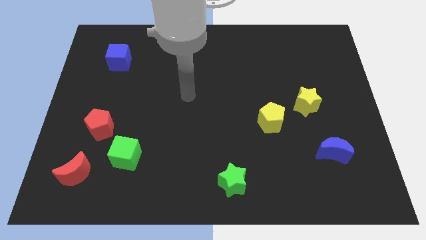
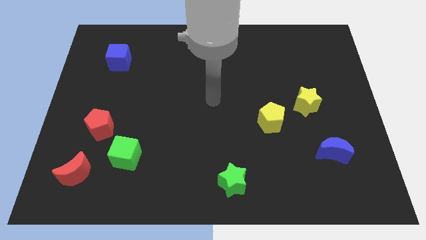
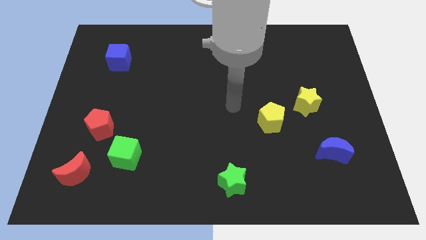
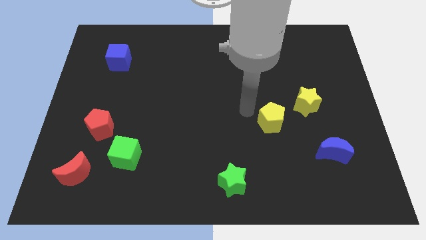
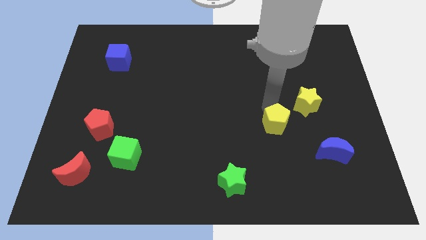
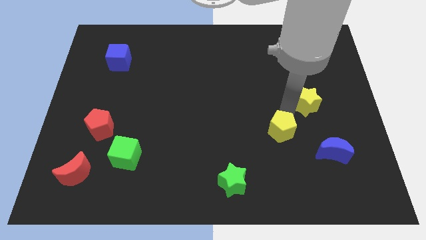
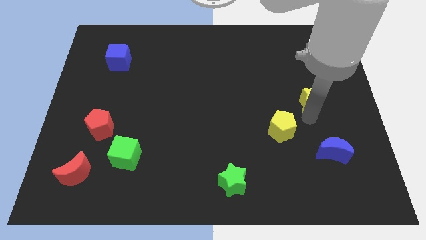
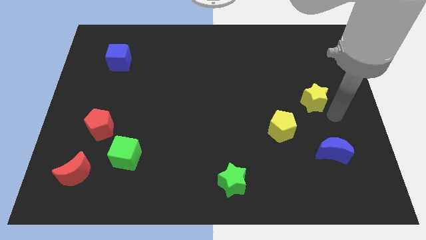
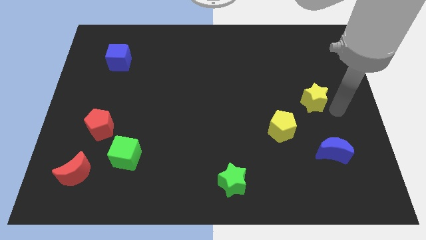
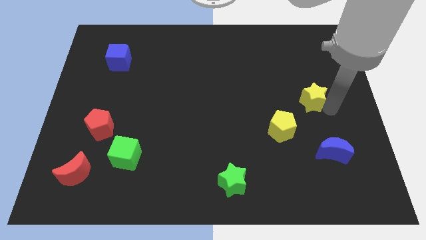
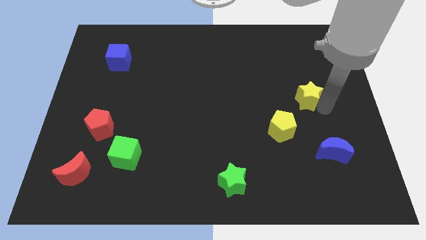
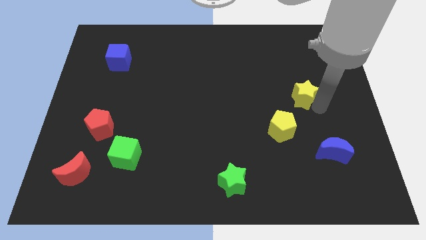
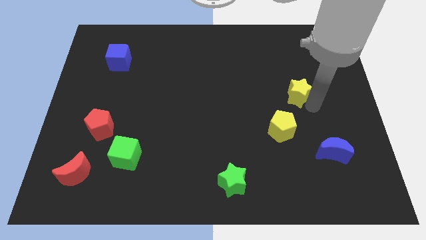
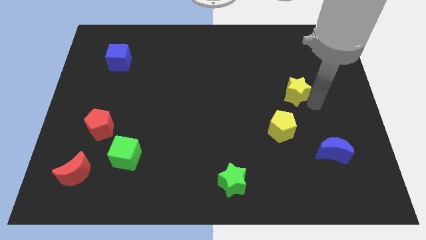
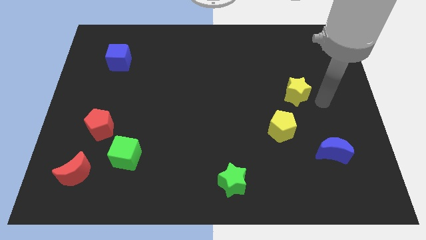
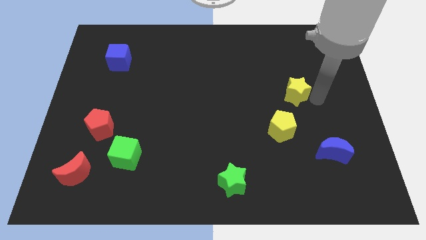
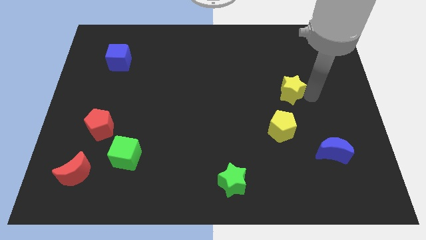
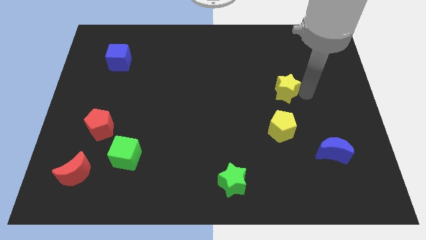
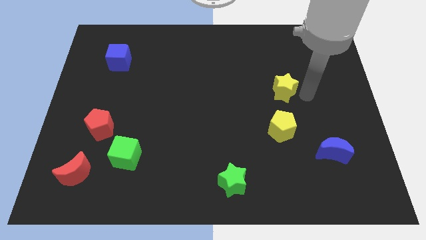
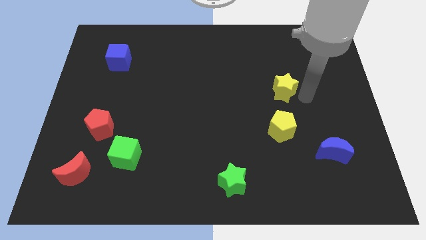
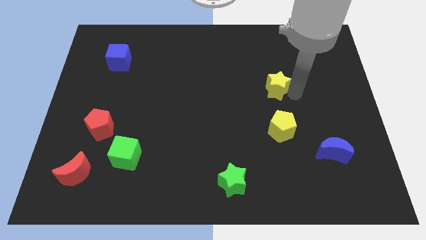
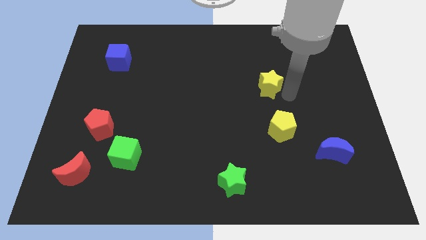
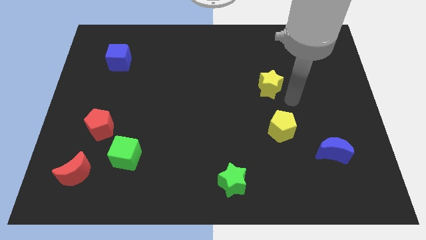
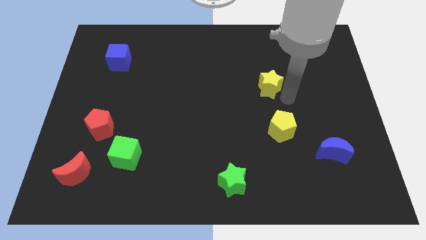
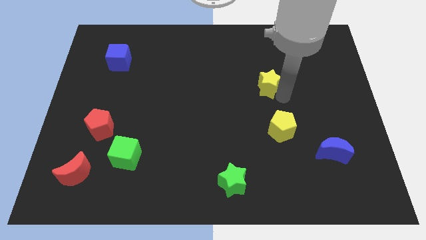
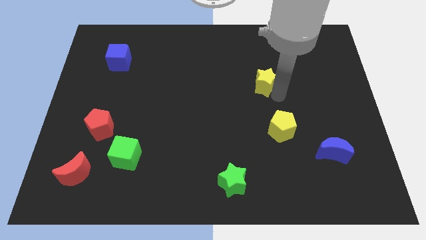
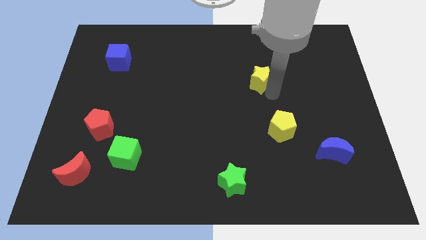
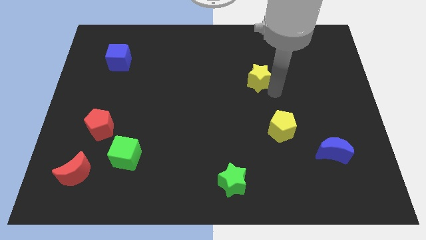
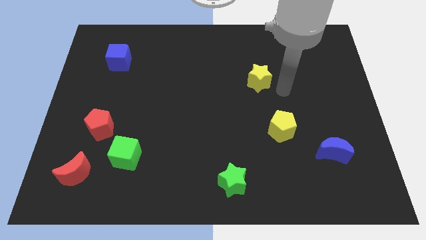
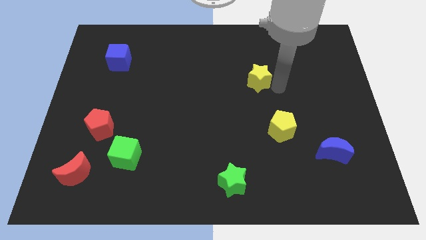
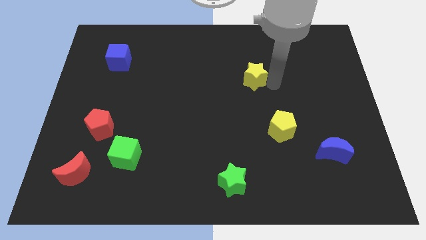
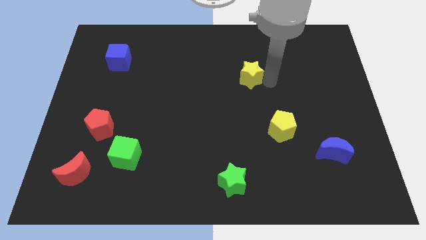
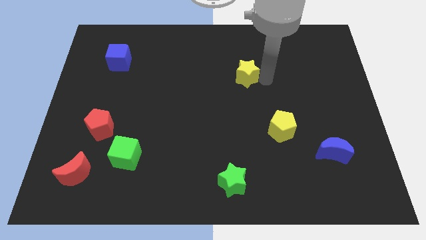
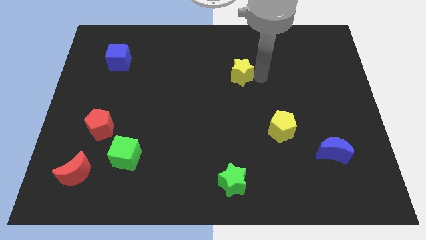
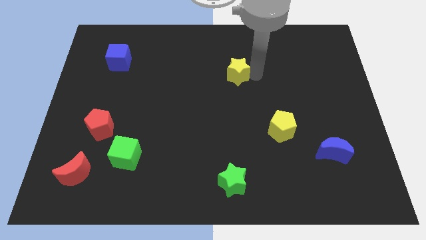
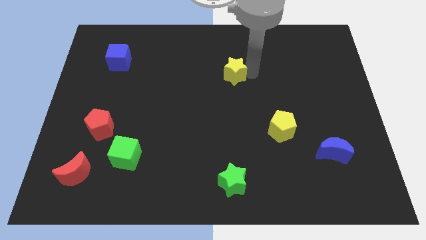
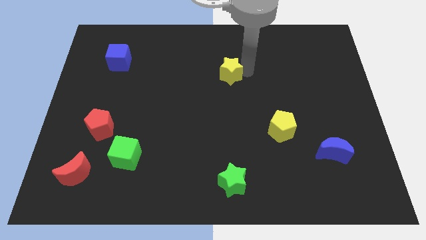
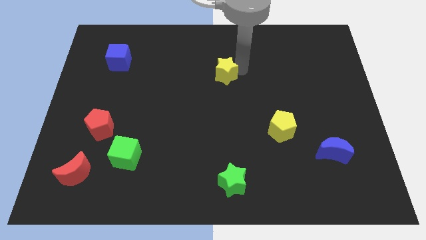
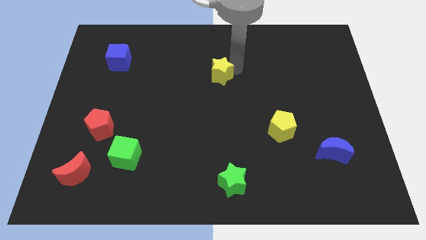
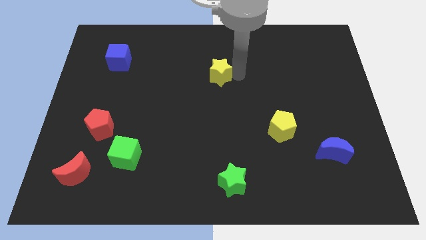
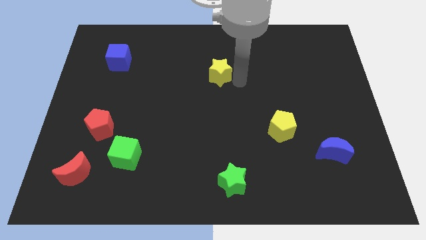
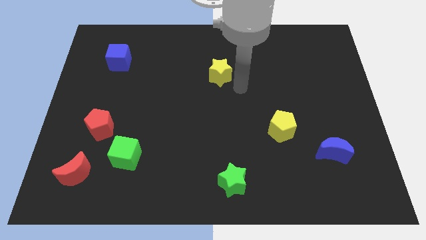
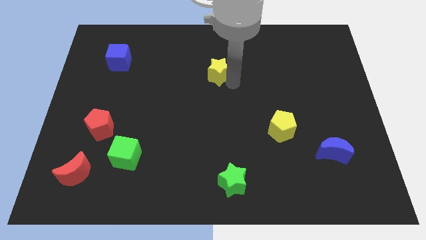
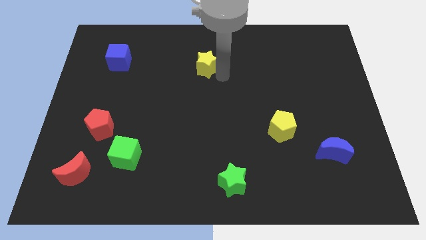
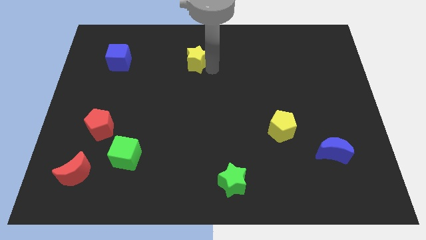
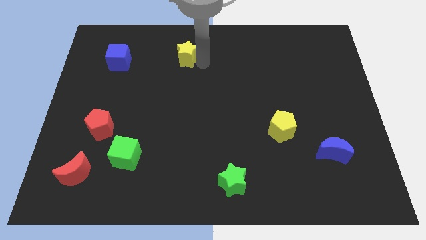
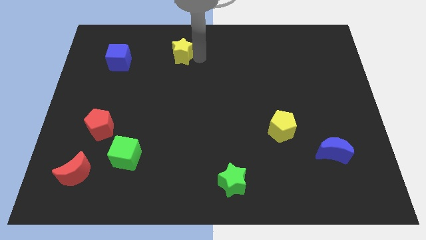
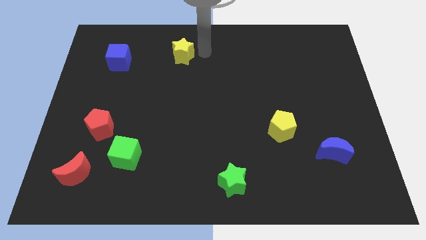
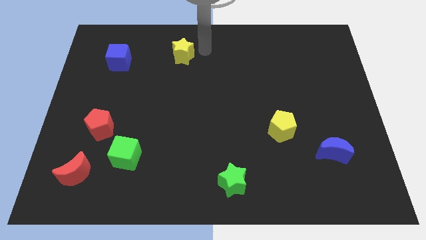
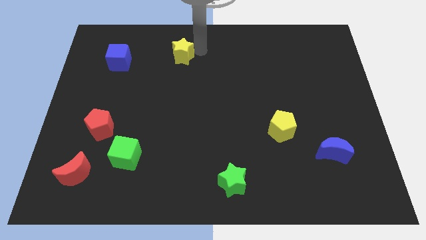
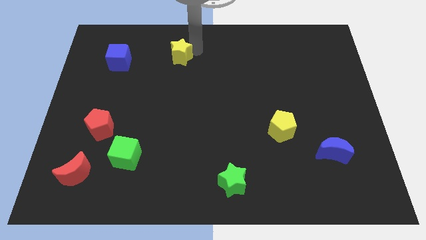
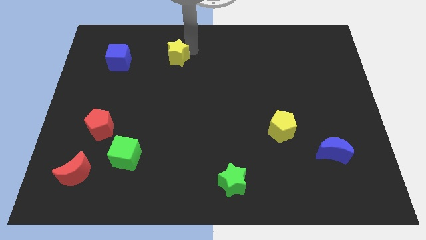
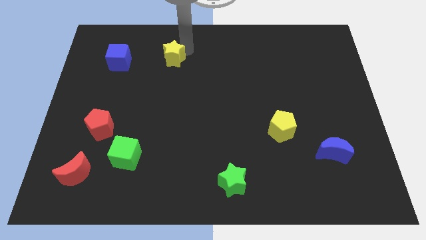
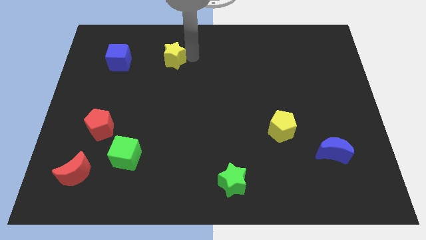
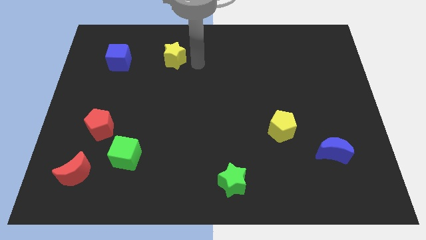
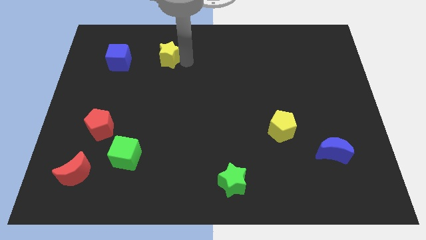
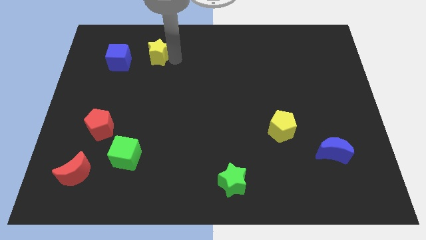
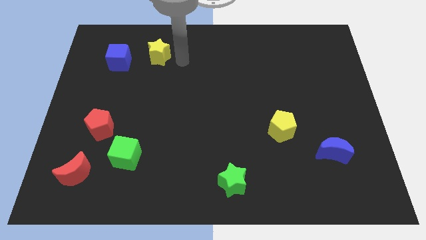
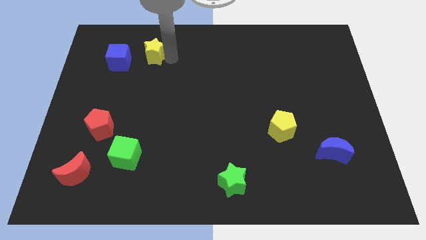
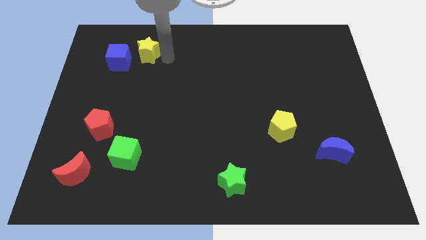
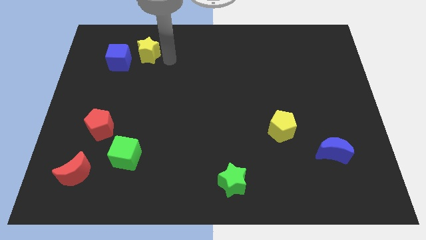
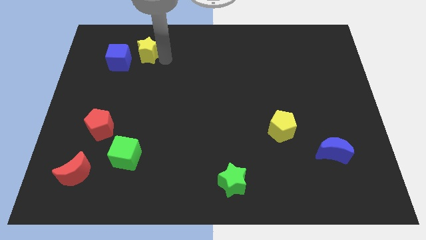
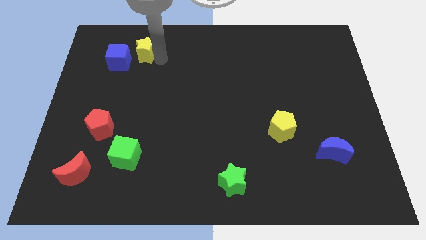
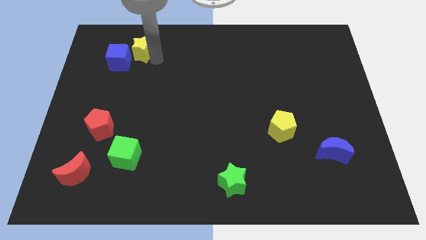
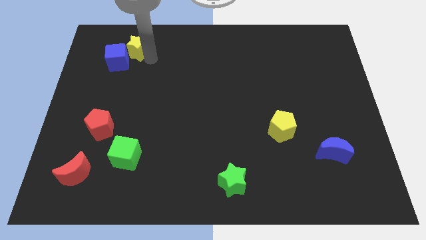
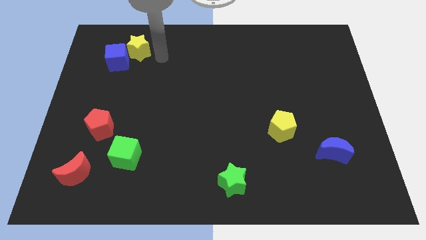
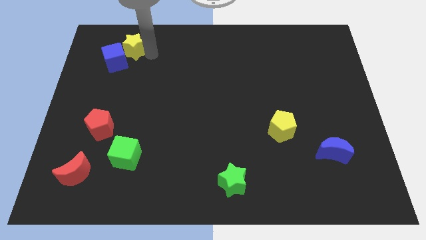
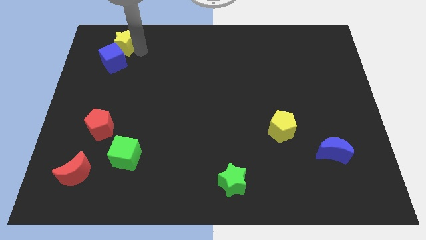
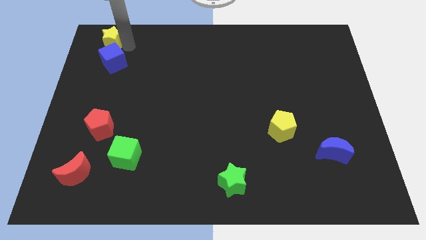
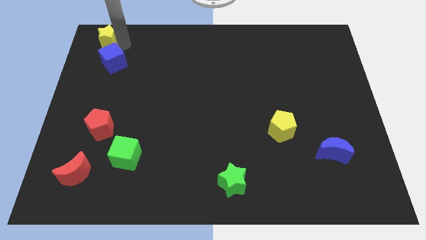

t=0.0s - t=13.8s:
push the yellow star to the top left of the board
